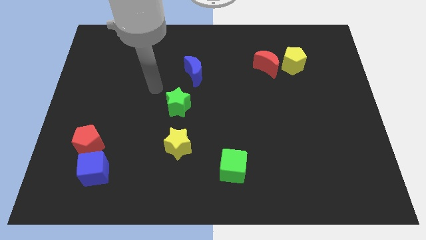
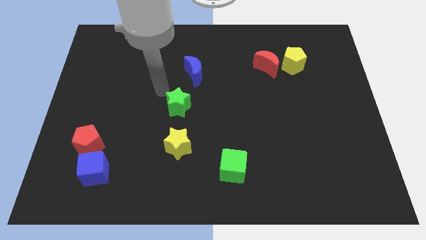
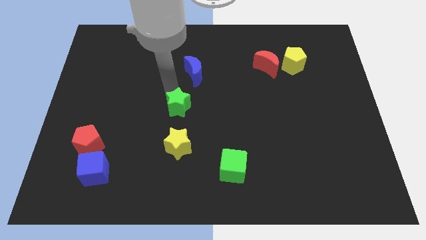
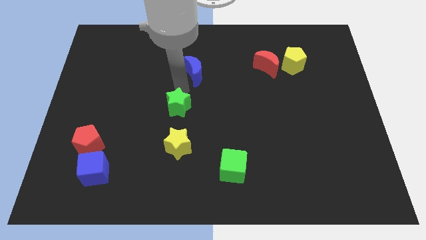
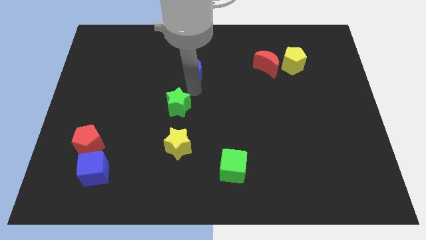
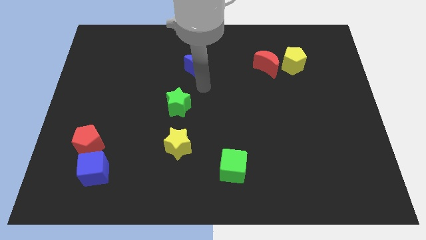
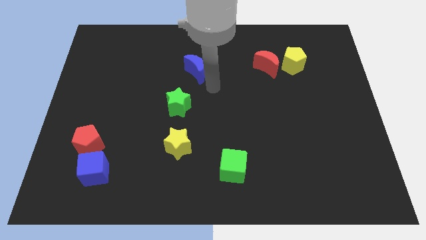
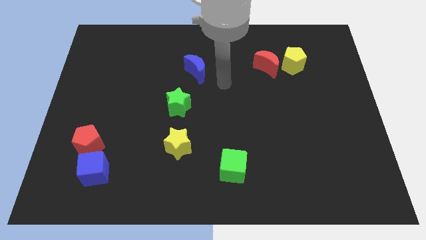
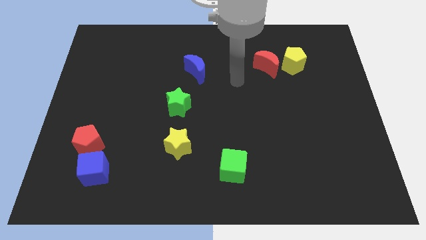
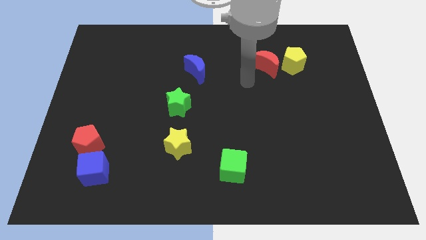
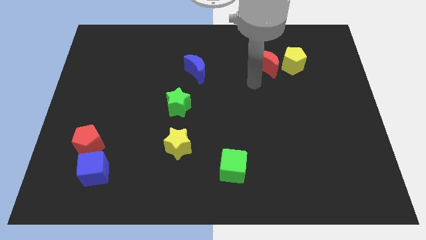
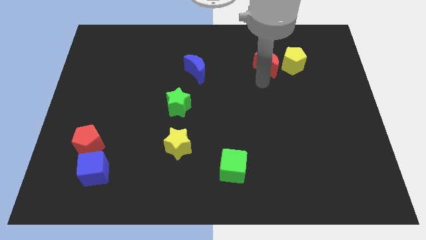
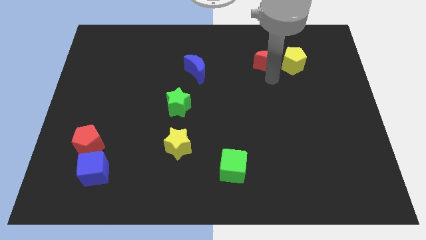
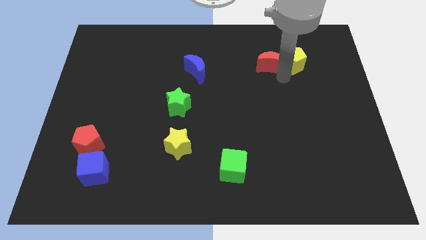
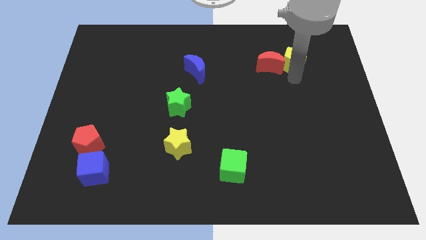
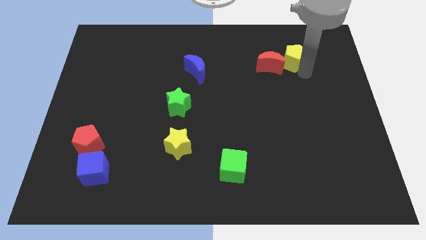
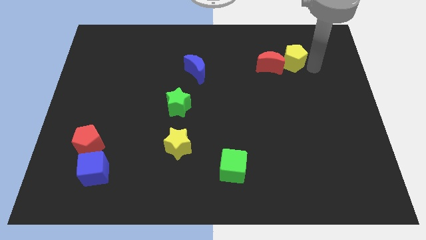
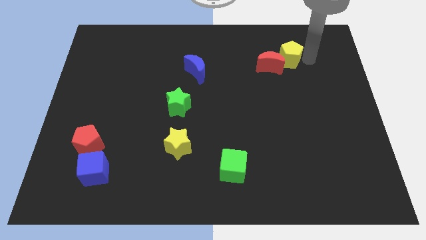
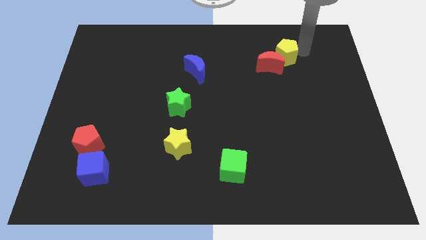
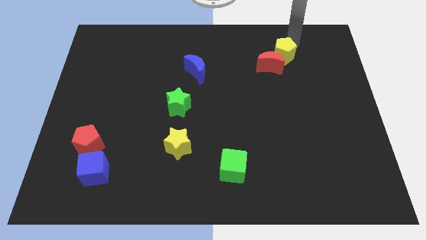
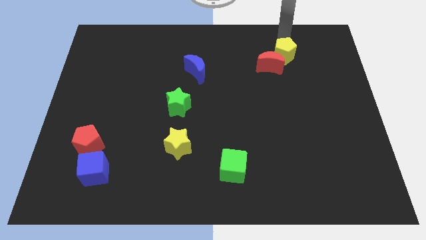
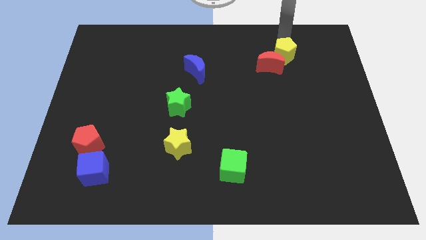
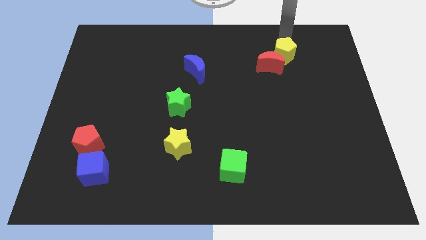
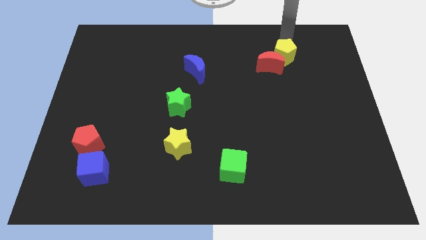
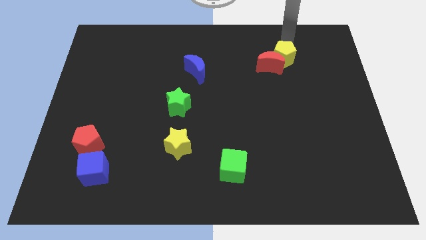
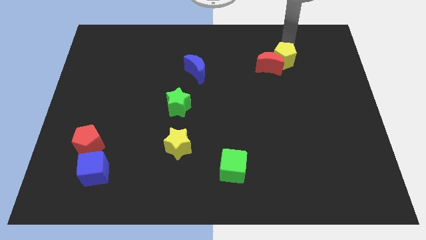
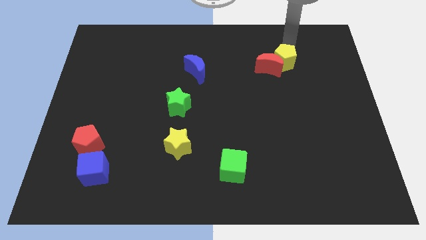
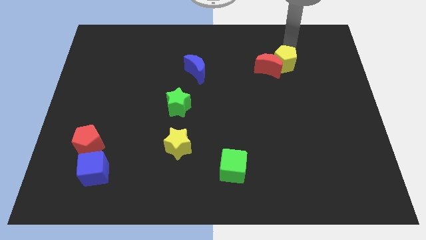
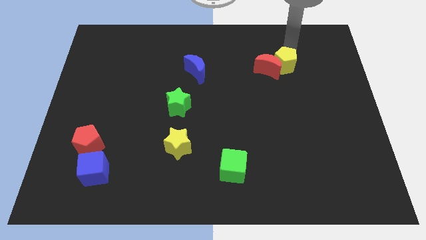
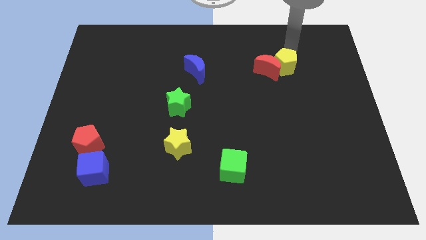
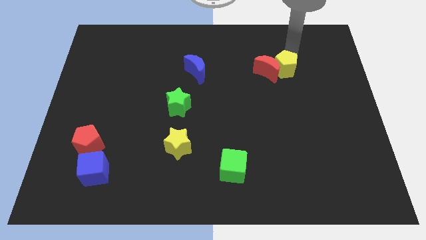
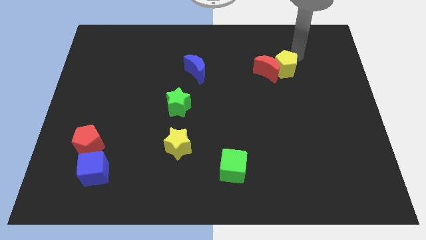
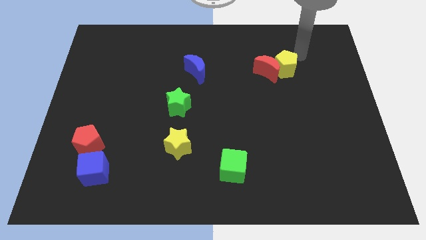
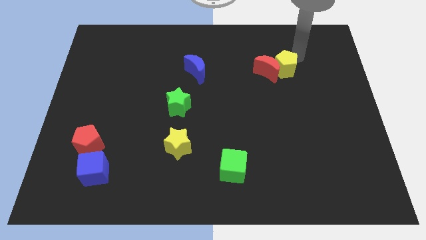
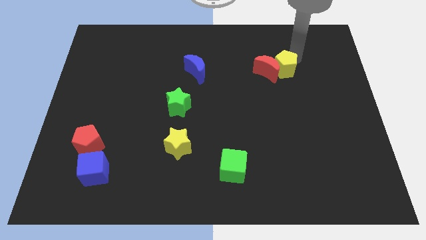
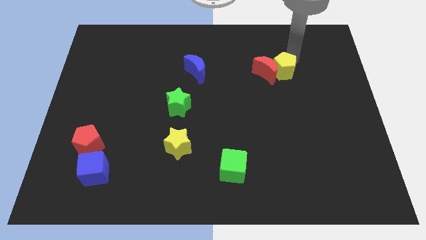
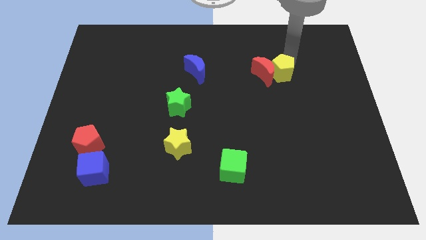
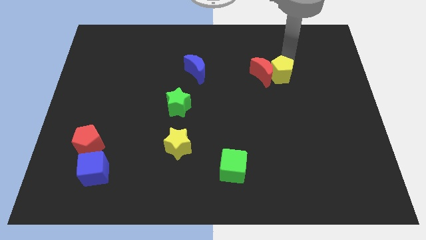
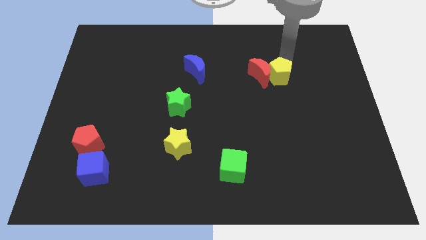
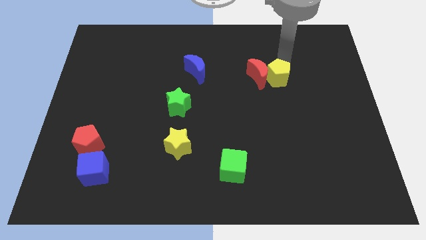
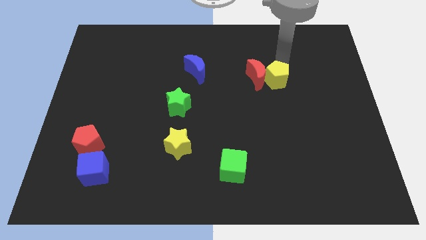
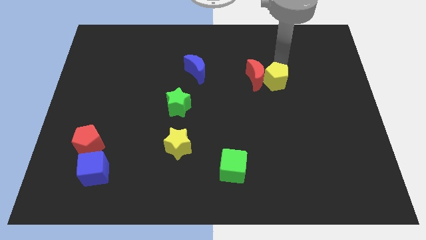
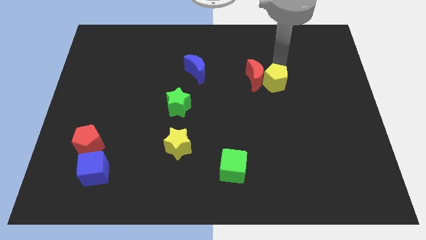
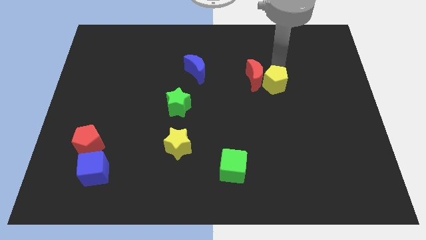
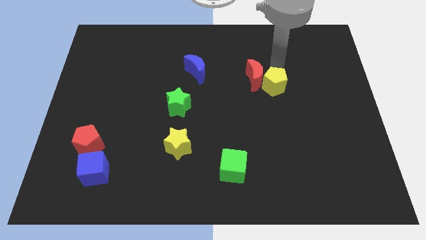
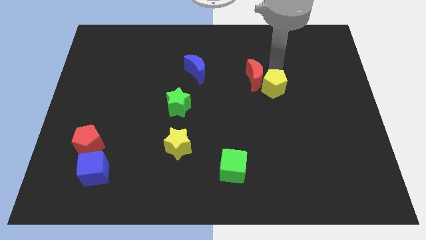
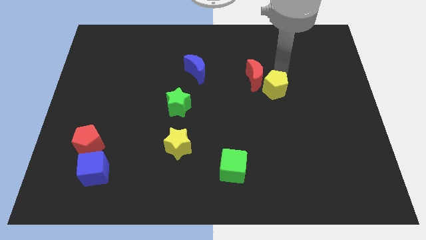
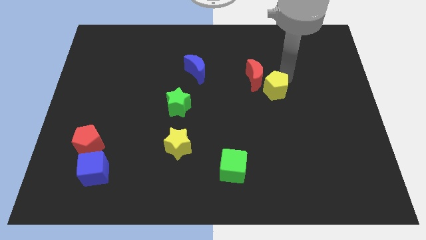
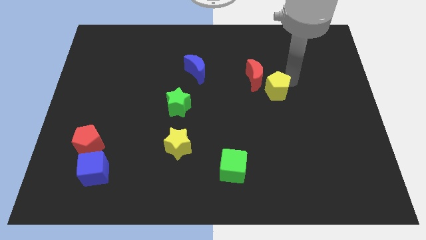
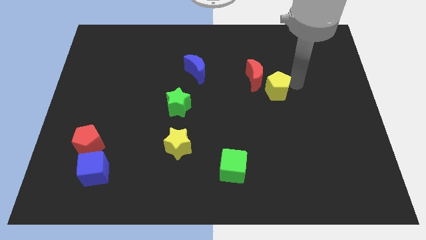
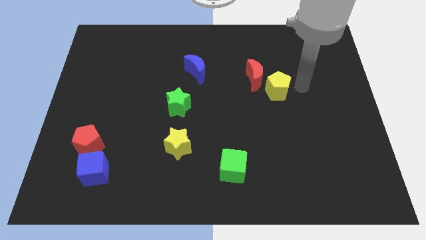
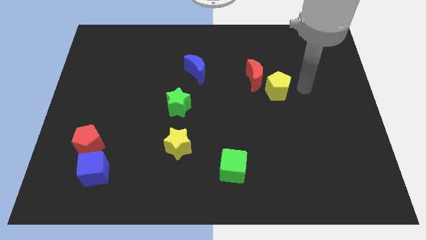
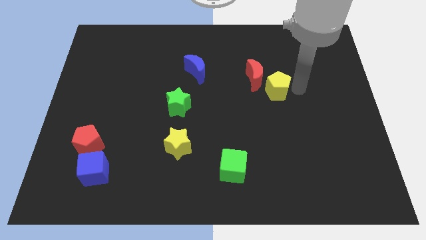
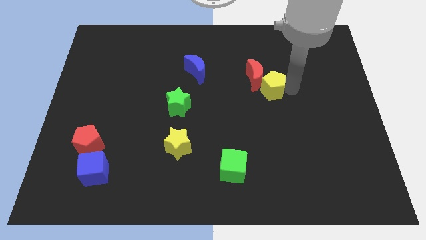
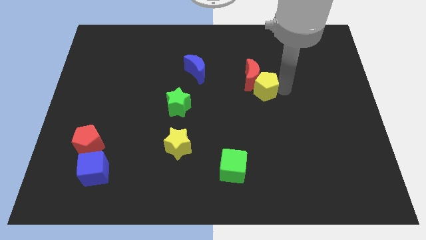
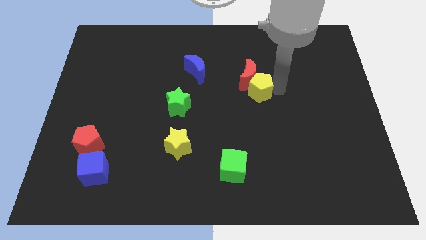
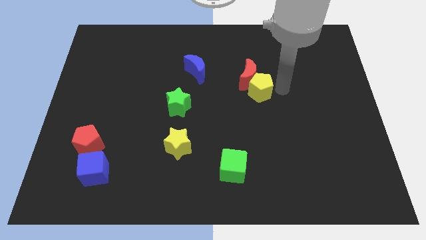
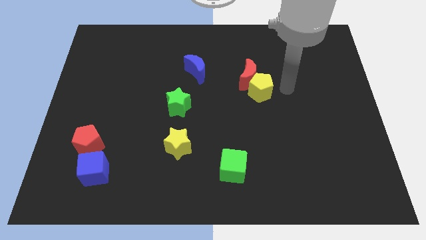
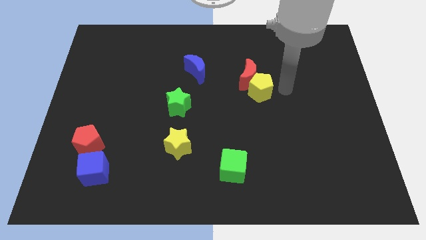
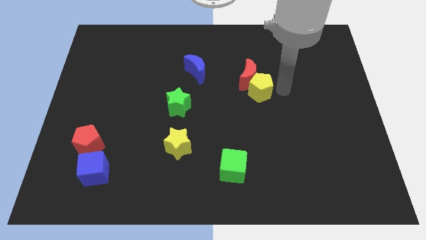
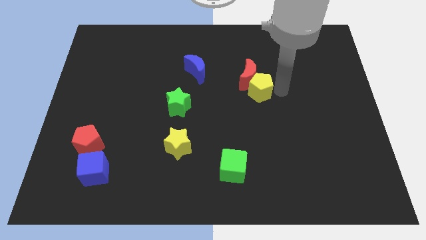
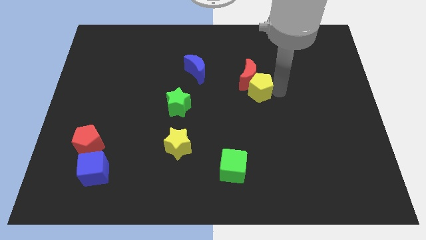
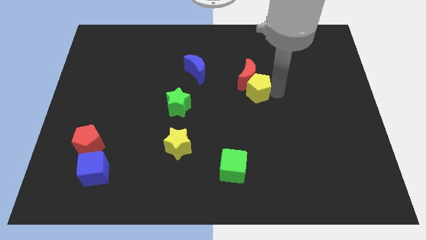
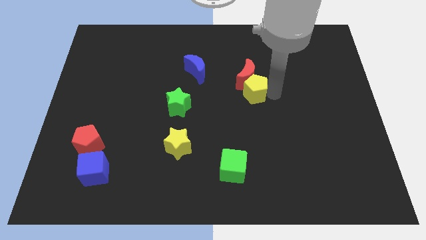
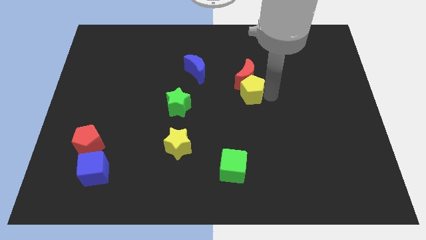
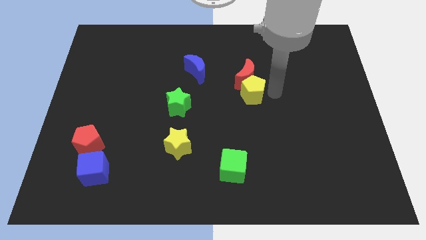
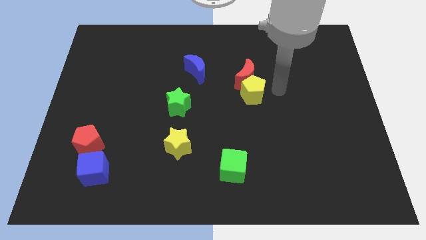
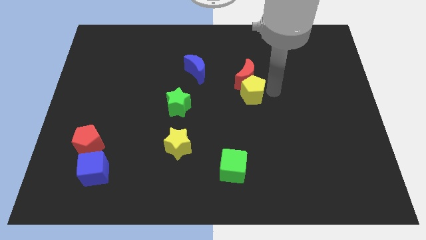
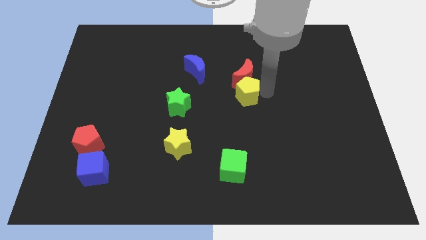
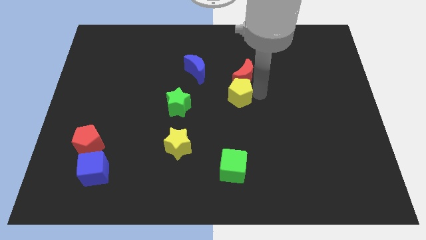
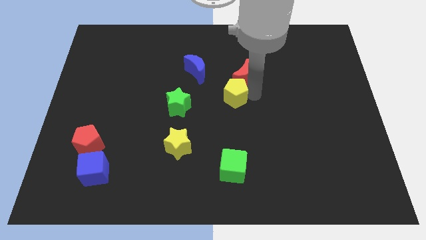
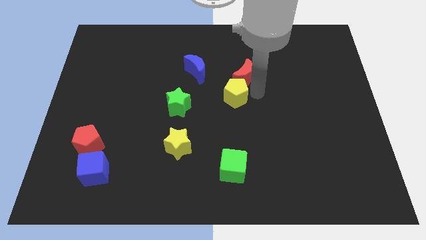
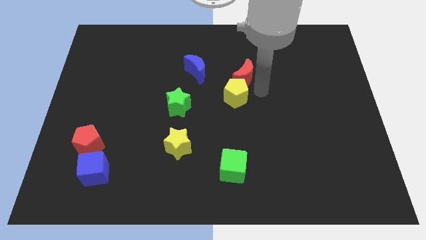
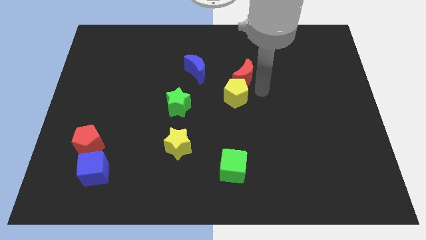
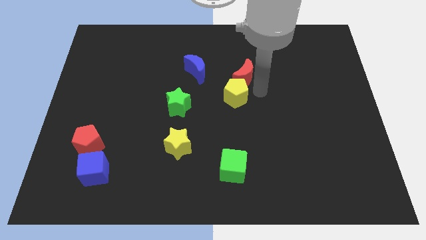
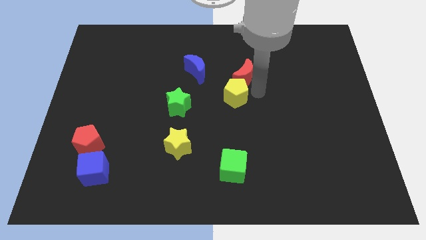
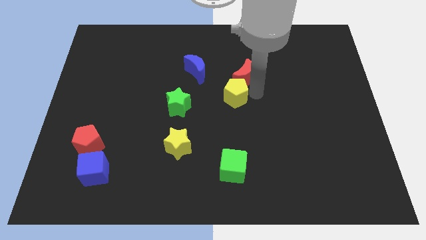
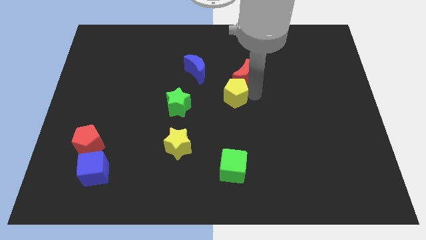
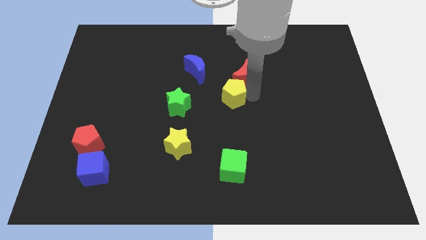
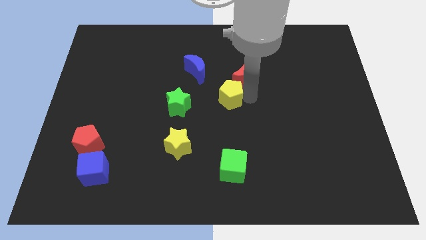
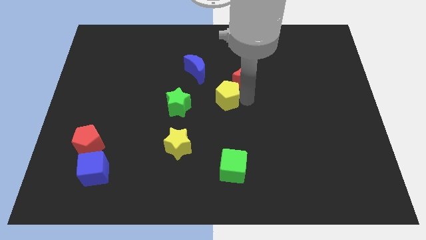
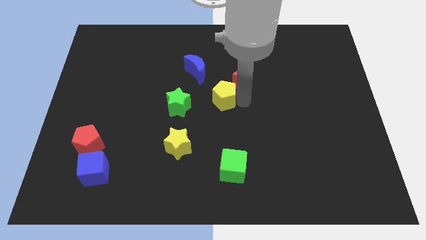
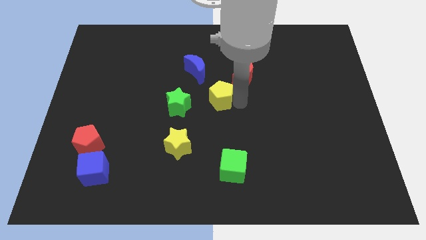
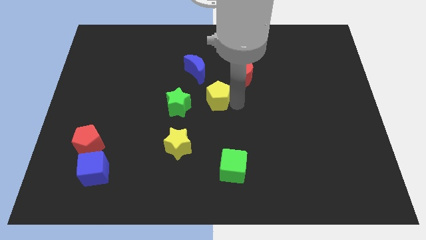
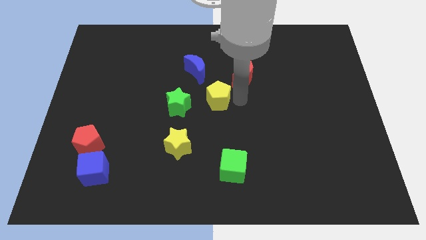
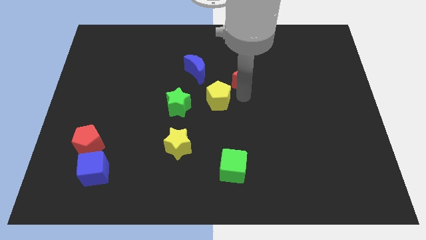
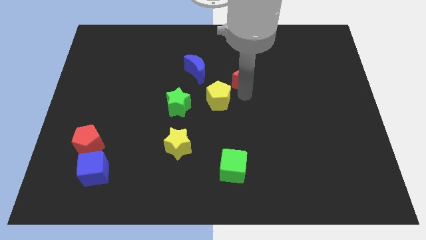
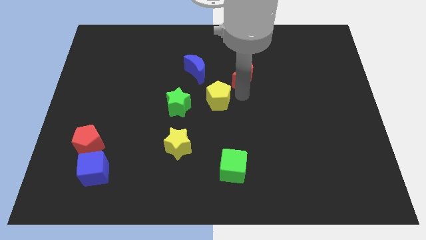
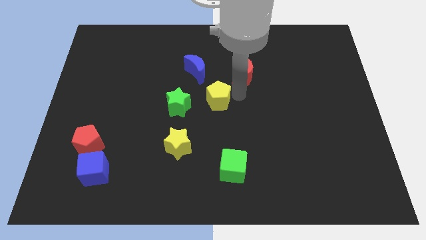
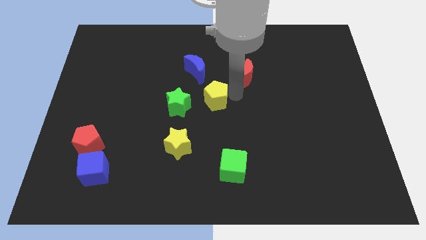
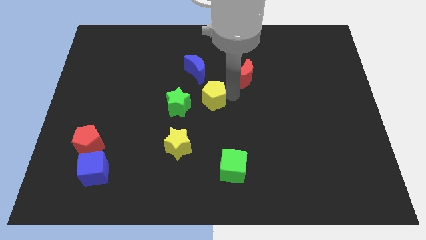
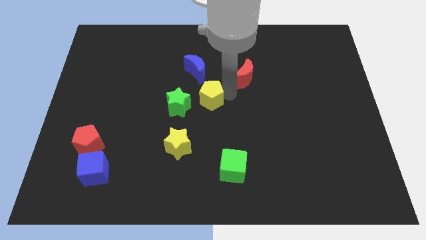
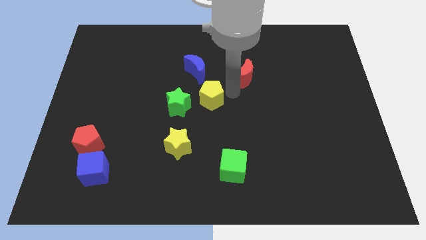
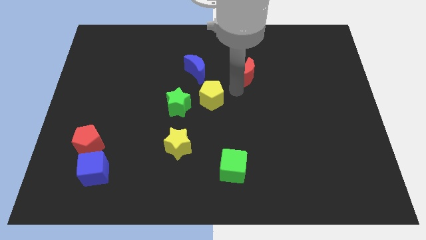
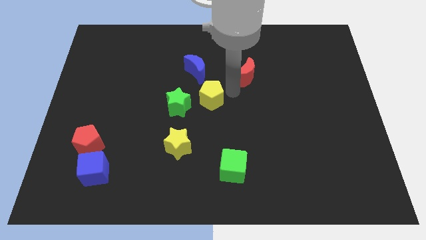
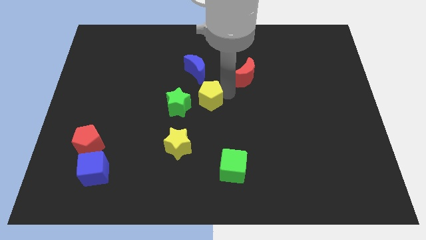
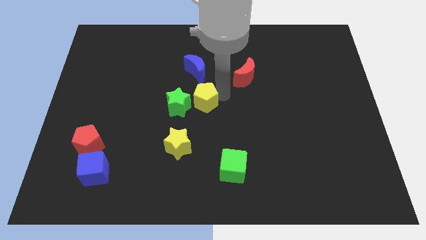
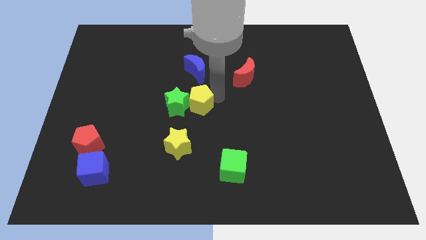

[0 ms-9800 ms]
slide the yellow pentagon to the green star
